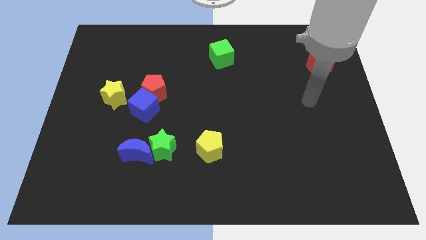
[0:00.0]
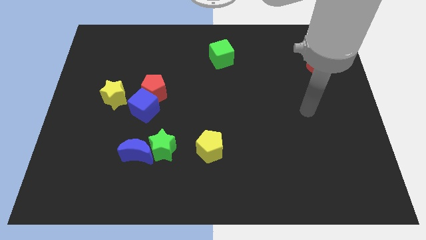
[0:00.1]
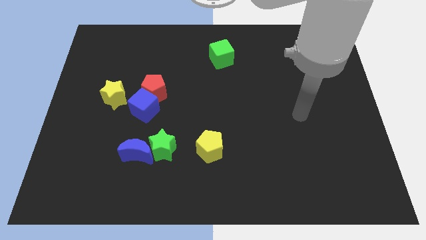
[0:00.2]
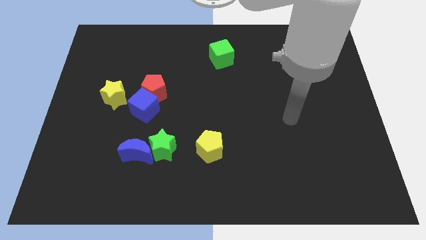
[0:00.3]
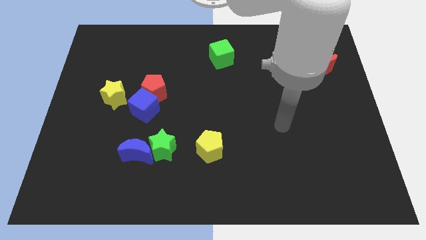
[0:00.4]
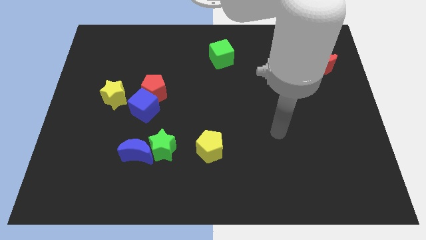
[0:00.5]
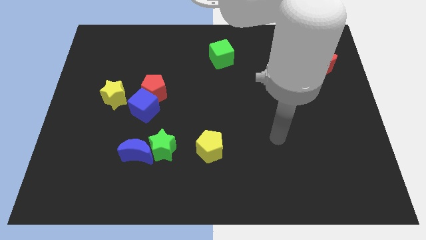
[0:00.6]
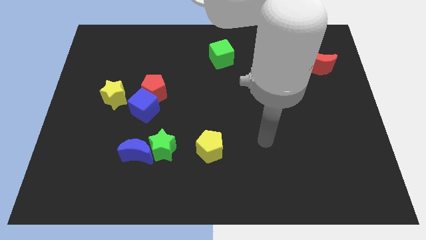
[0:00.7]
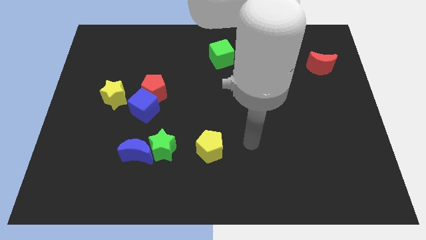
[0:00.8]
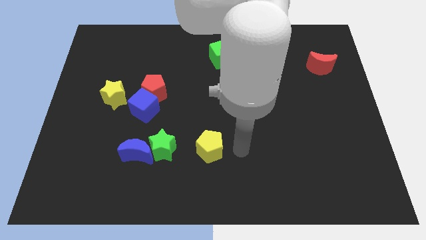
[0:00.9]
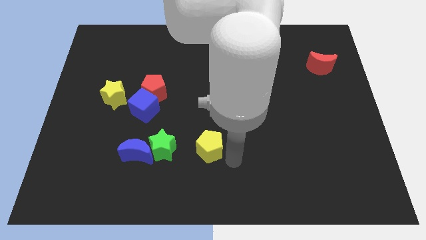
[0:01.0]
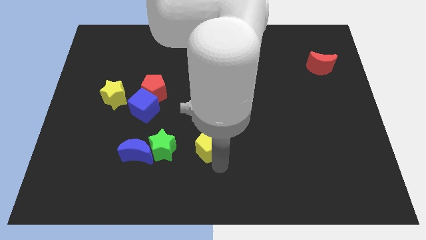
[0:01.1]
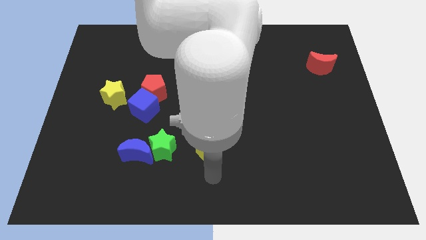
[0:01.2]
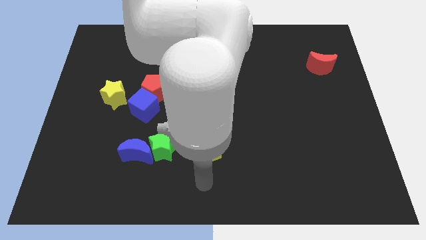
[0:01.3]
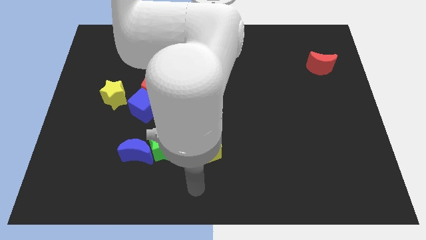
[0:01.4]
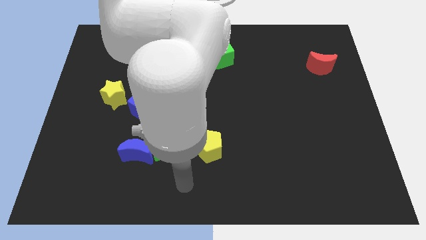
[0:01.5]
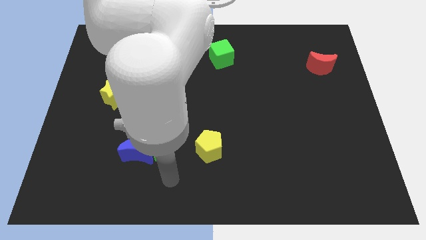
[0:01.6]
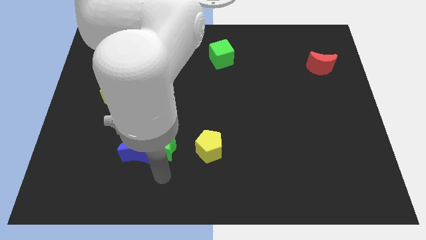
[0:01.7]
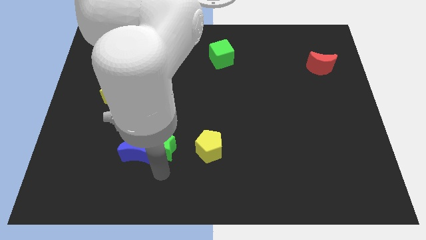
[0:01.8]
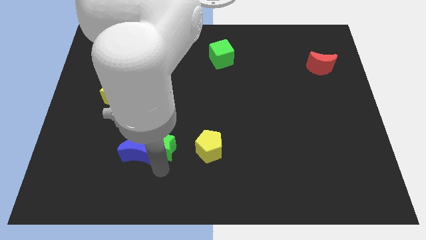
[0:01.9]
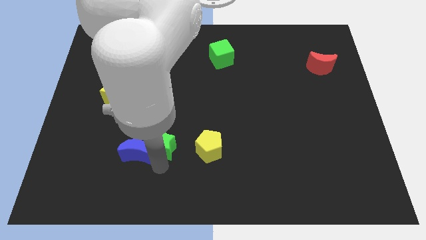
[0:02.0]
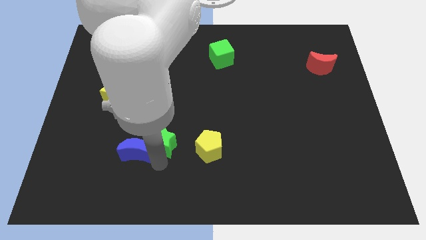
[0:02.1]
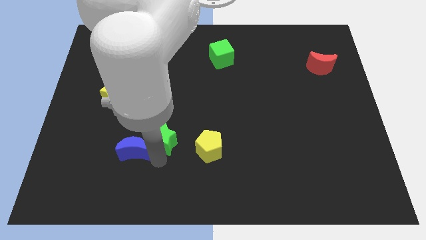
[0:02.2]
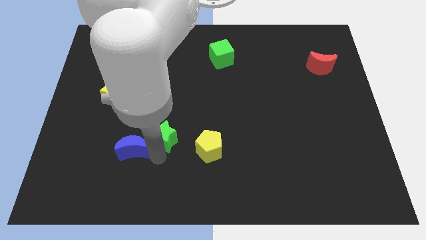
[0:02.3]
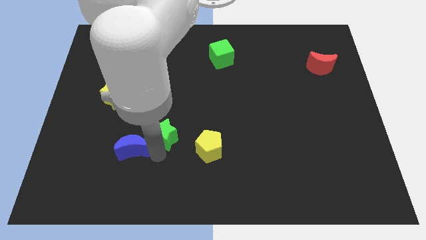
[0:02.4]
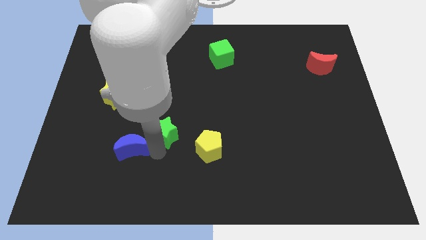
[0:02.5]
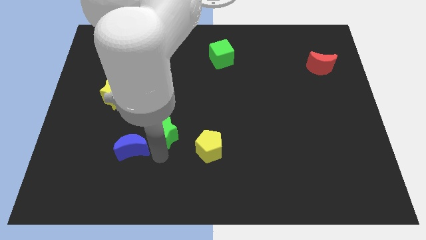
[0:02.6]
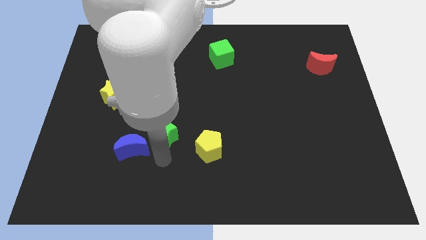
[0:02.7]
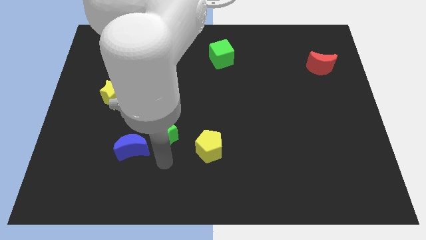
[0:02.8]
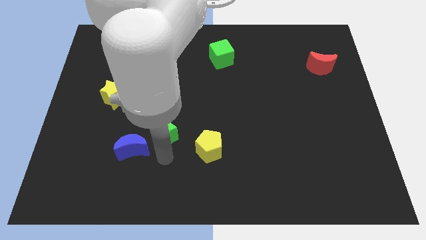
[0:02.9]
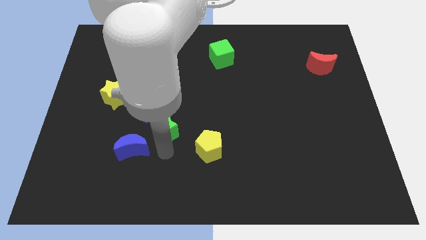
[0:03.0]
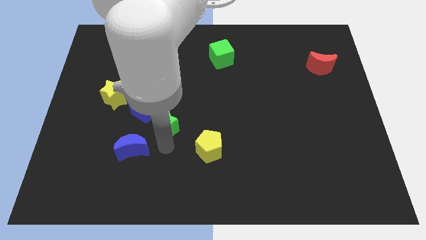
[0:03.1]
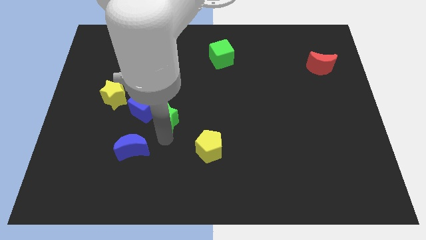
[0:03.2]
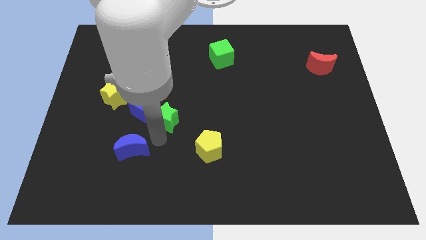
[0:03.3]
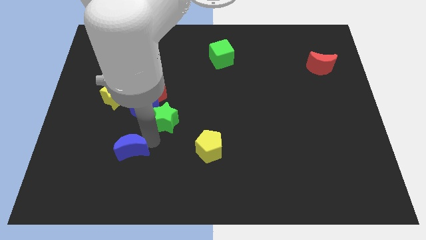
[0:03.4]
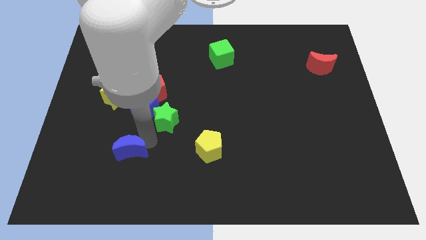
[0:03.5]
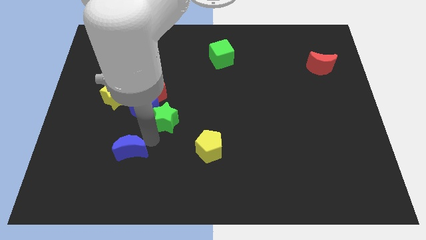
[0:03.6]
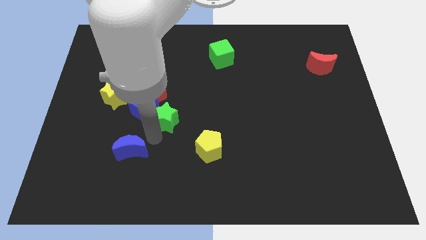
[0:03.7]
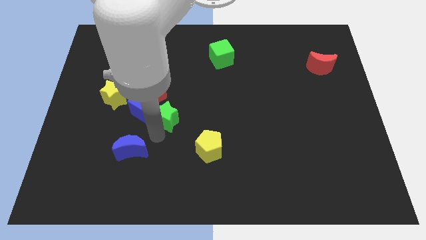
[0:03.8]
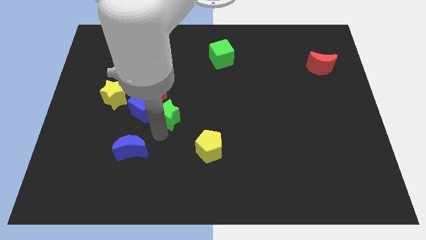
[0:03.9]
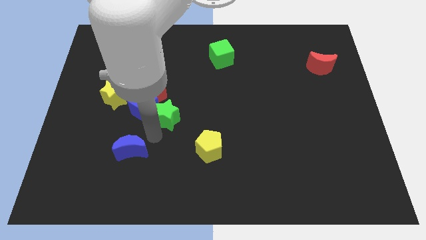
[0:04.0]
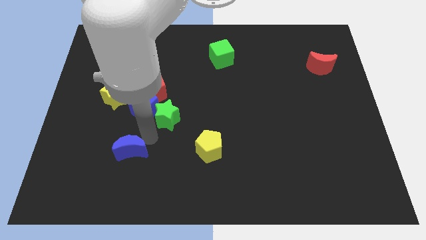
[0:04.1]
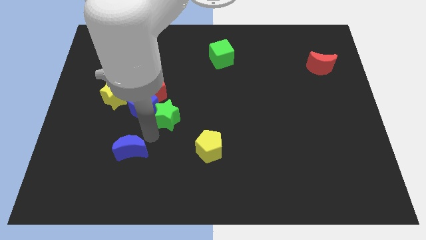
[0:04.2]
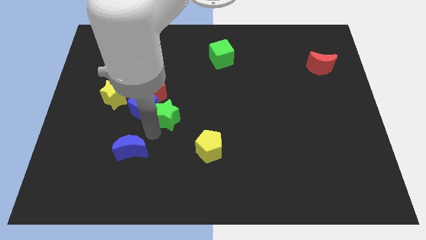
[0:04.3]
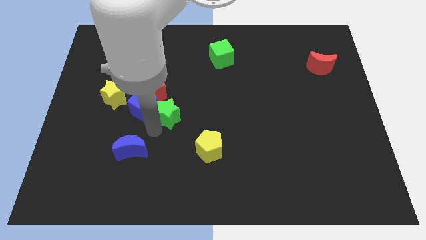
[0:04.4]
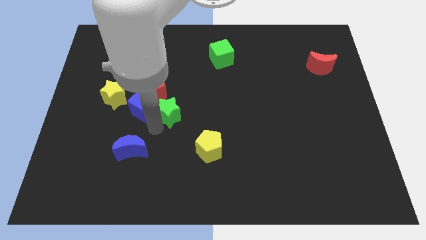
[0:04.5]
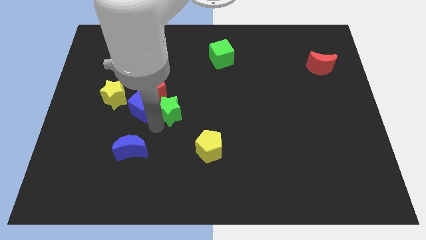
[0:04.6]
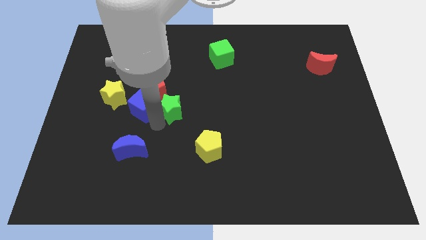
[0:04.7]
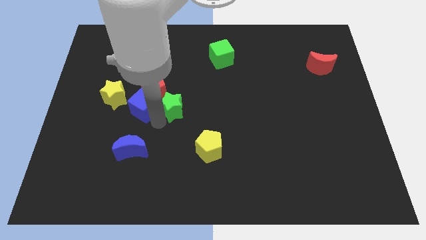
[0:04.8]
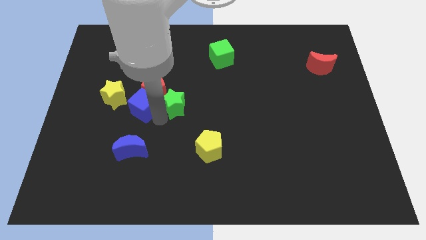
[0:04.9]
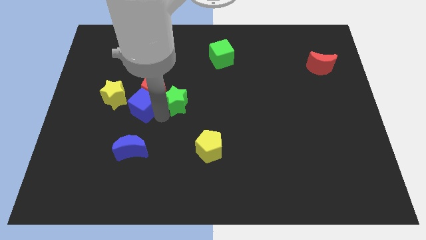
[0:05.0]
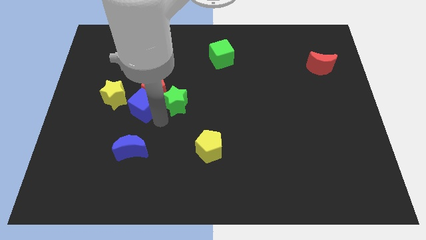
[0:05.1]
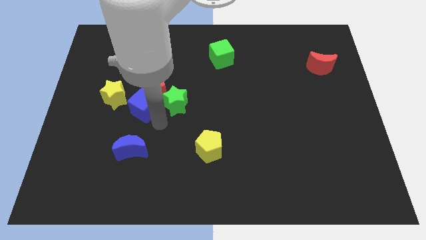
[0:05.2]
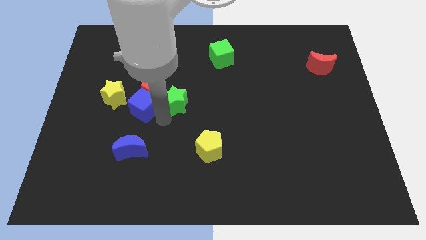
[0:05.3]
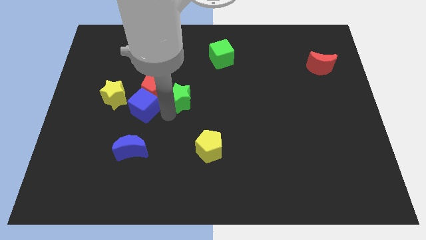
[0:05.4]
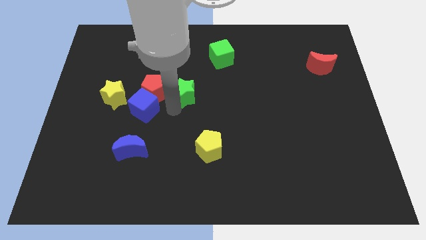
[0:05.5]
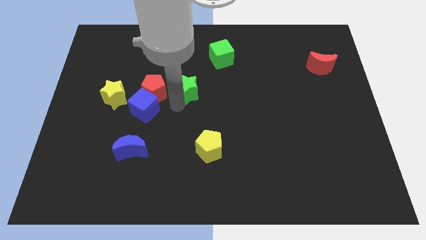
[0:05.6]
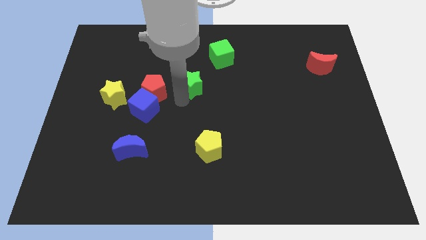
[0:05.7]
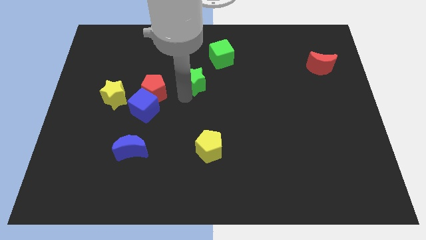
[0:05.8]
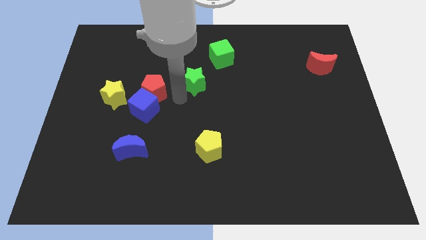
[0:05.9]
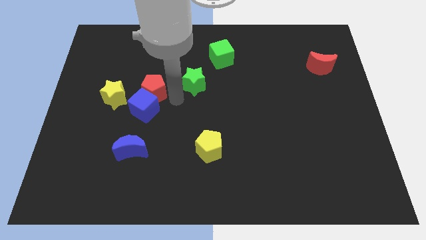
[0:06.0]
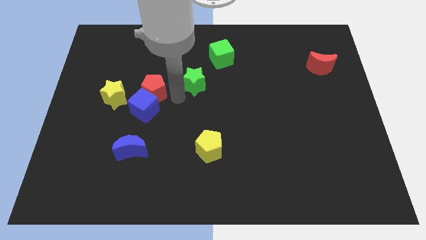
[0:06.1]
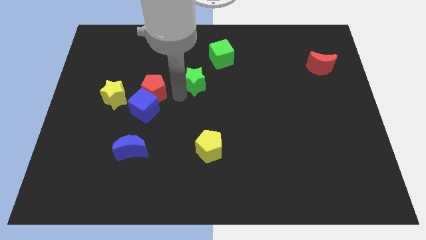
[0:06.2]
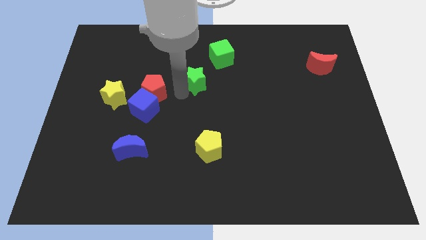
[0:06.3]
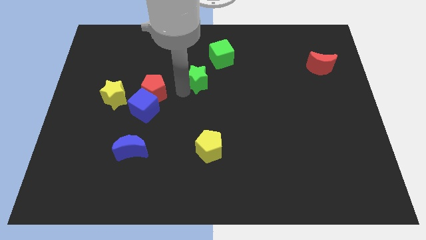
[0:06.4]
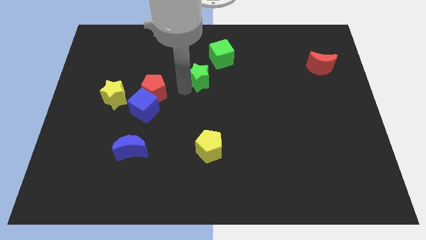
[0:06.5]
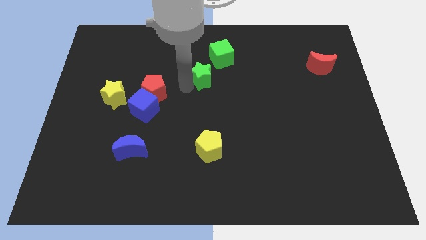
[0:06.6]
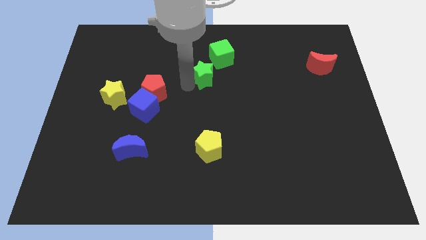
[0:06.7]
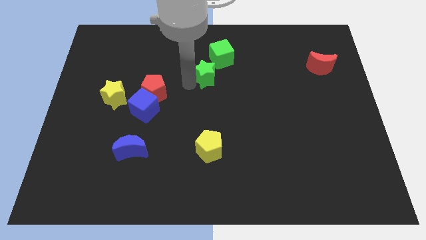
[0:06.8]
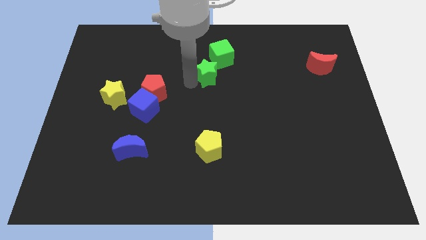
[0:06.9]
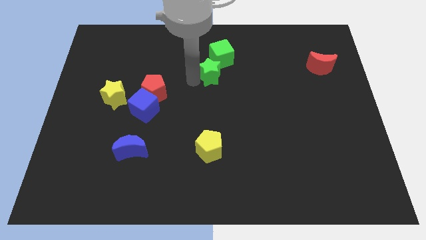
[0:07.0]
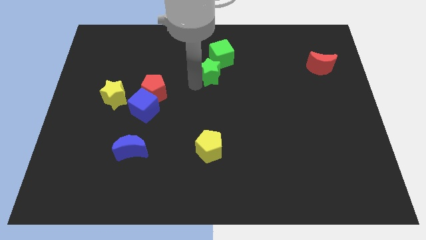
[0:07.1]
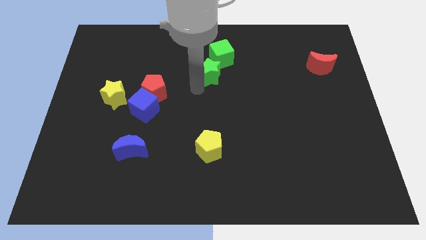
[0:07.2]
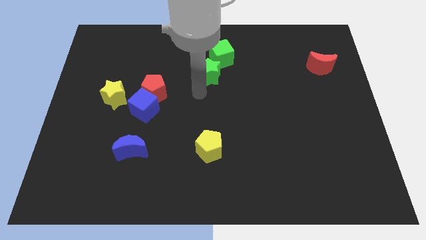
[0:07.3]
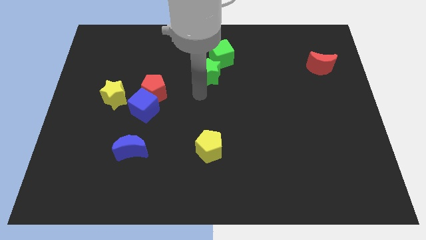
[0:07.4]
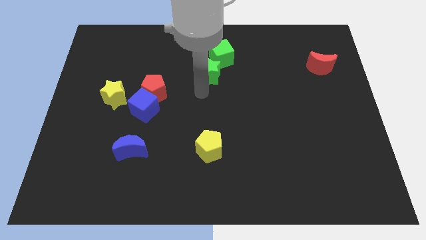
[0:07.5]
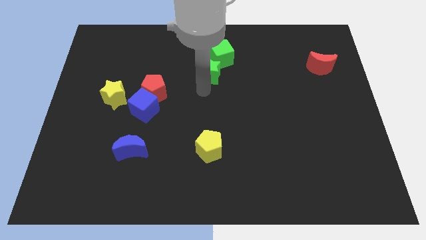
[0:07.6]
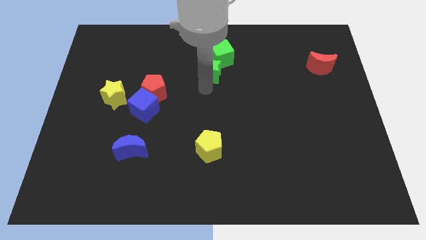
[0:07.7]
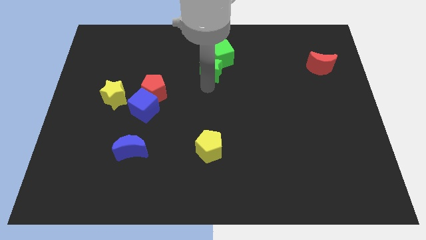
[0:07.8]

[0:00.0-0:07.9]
push the green star towards the green cube
